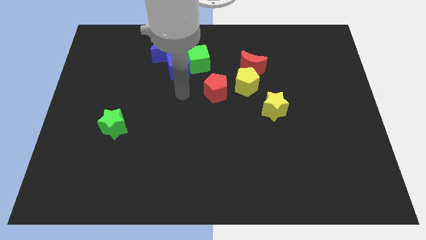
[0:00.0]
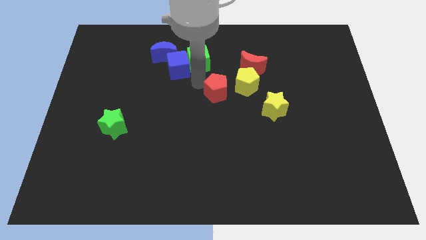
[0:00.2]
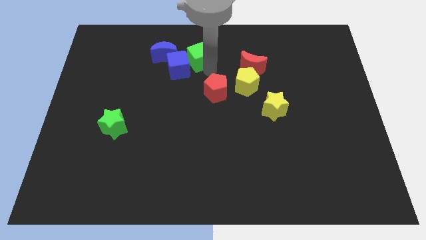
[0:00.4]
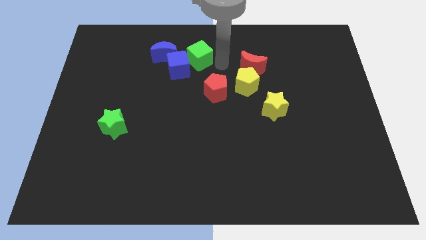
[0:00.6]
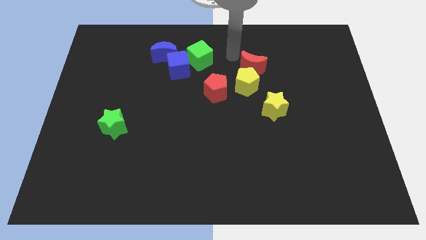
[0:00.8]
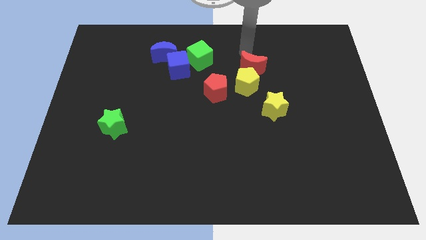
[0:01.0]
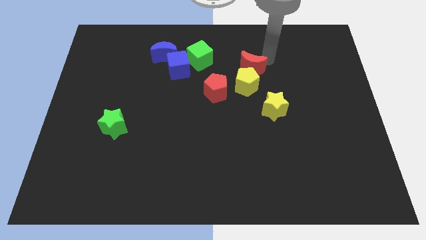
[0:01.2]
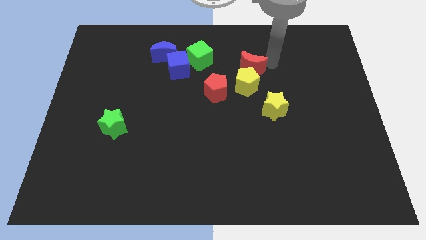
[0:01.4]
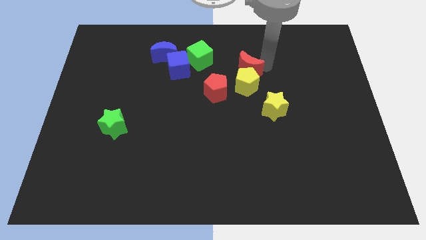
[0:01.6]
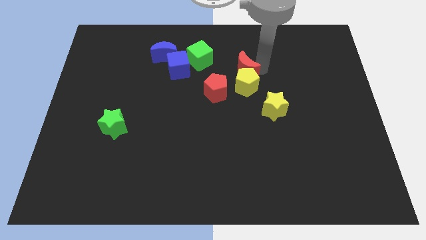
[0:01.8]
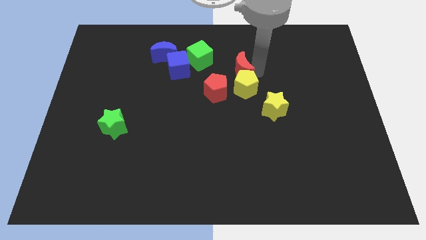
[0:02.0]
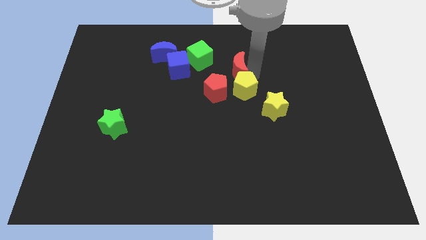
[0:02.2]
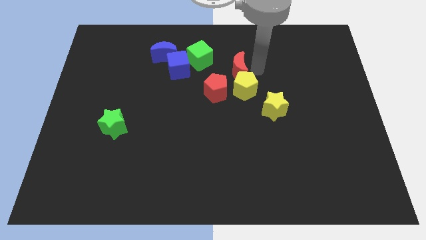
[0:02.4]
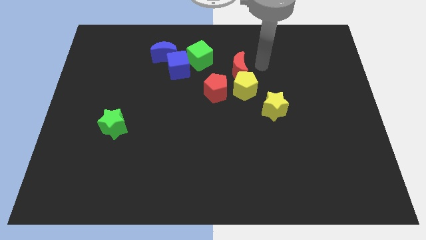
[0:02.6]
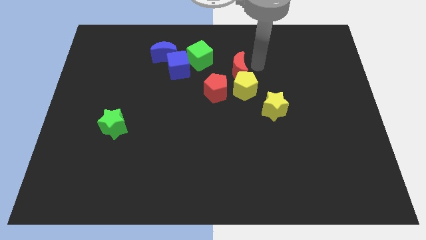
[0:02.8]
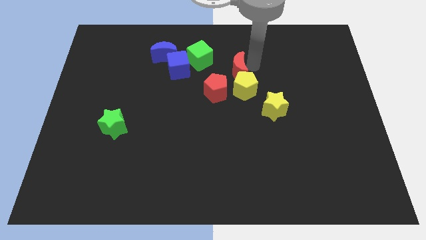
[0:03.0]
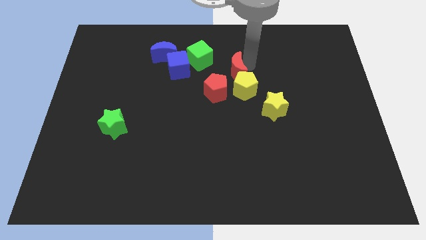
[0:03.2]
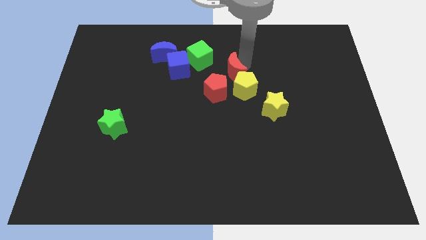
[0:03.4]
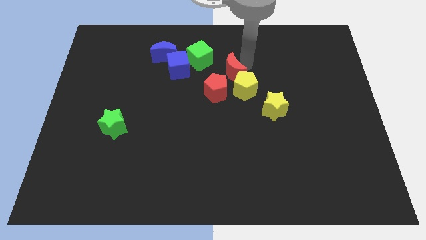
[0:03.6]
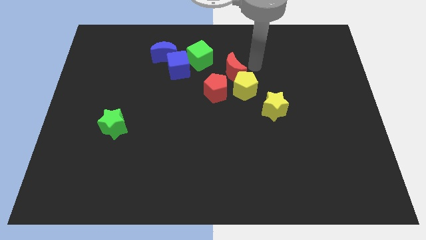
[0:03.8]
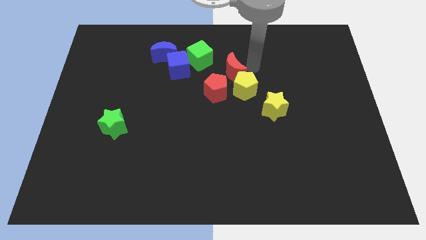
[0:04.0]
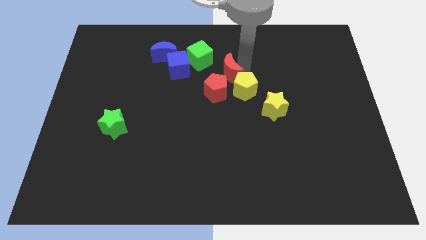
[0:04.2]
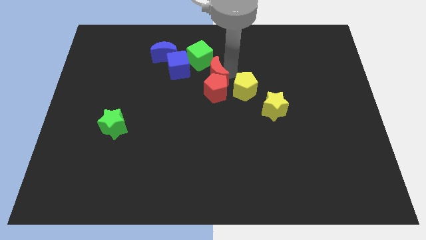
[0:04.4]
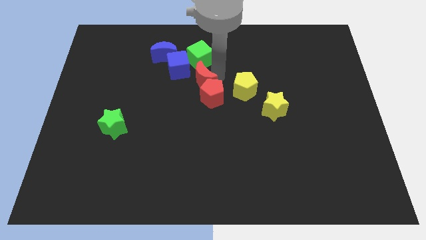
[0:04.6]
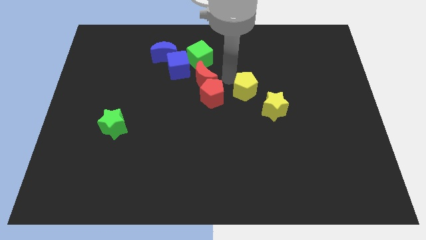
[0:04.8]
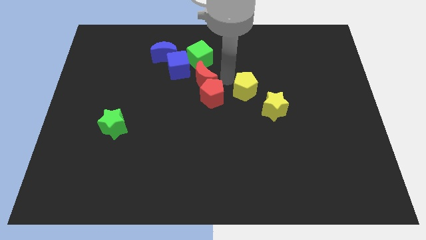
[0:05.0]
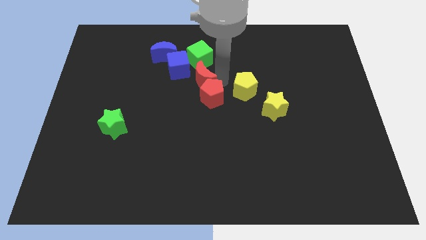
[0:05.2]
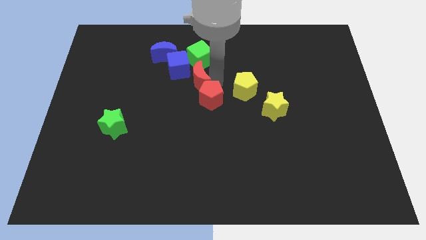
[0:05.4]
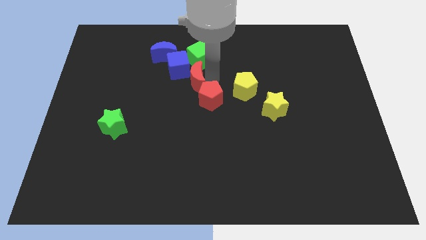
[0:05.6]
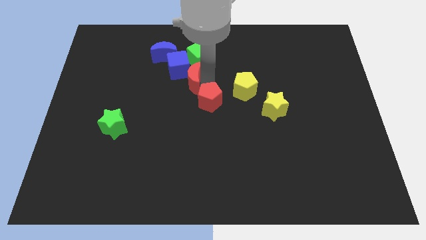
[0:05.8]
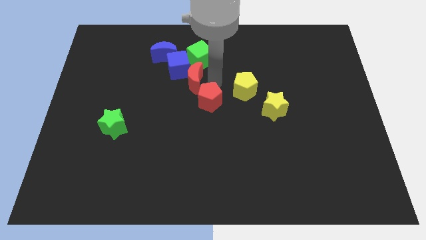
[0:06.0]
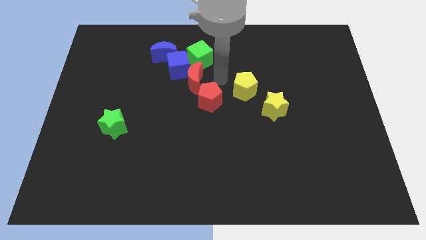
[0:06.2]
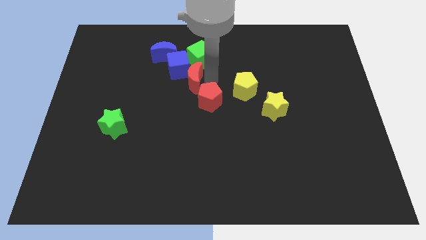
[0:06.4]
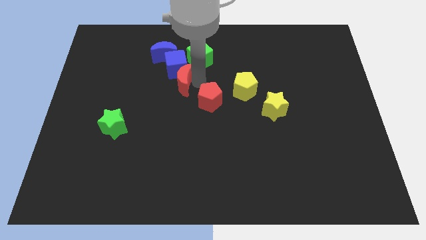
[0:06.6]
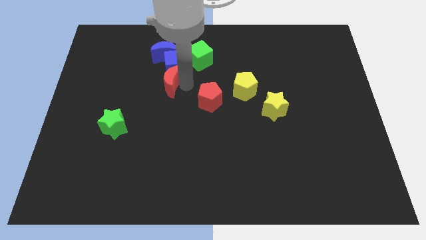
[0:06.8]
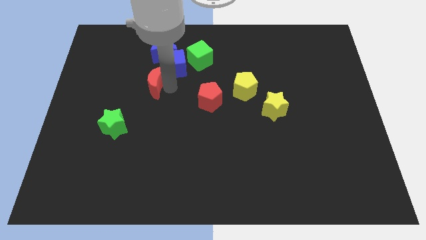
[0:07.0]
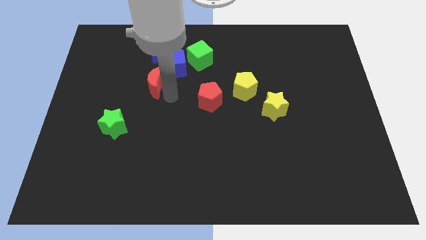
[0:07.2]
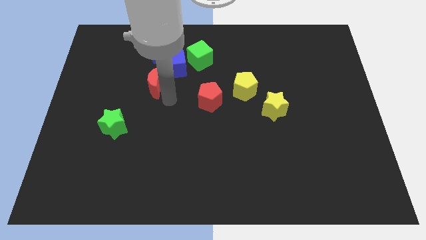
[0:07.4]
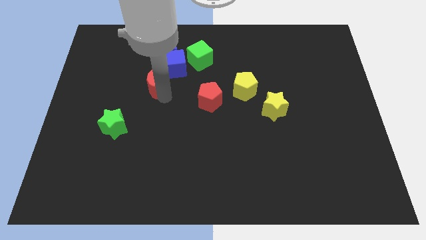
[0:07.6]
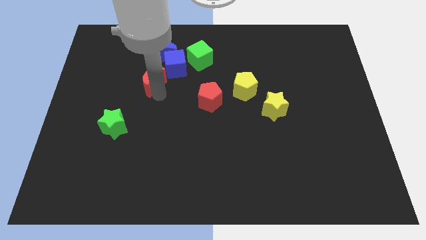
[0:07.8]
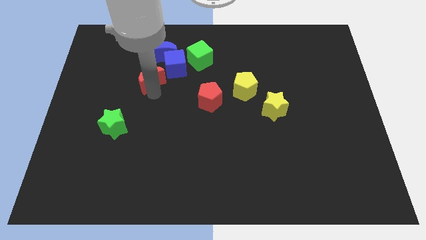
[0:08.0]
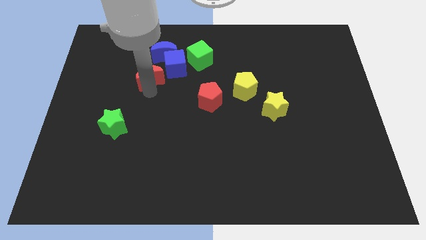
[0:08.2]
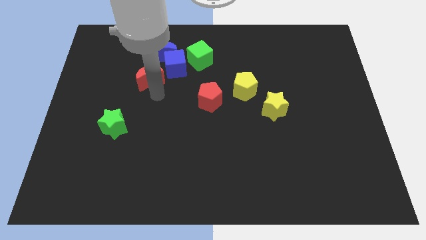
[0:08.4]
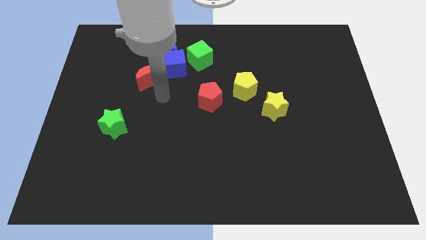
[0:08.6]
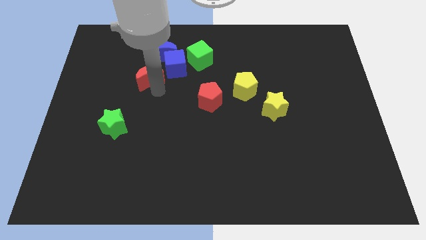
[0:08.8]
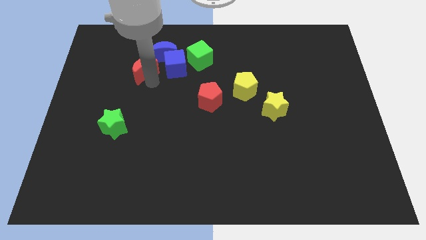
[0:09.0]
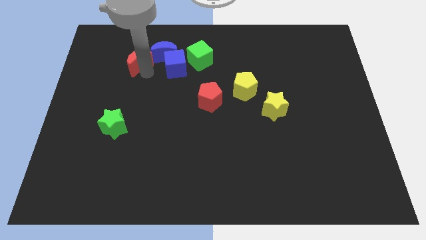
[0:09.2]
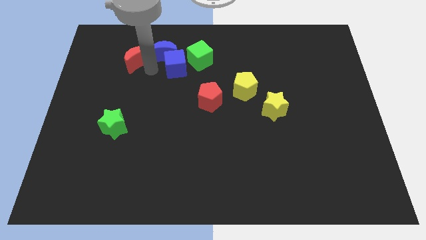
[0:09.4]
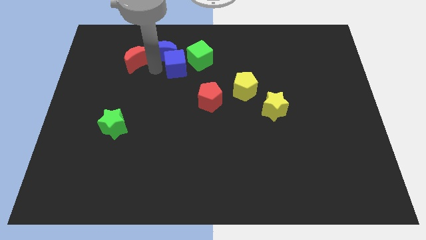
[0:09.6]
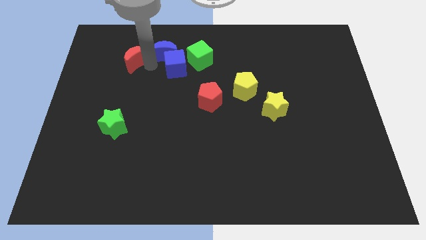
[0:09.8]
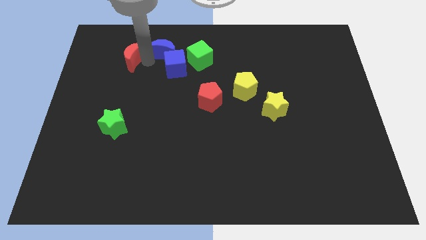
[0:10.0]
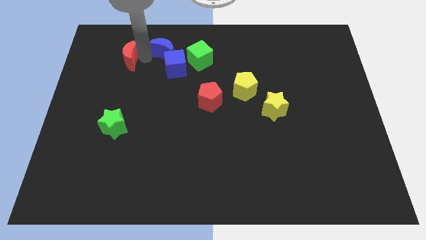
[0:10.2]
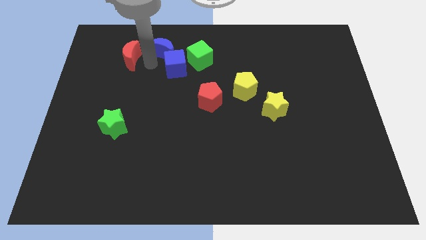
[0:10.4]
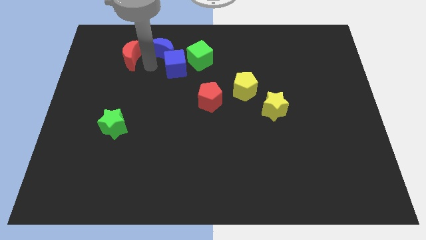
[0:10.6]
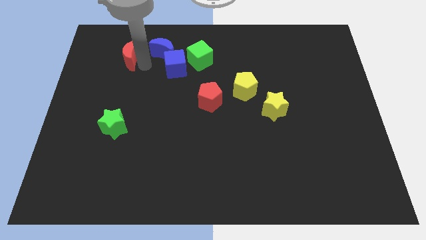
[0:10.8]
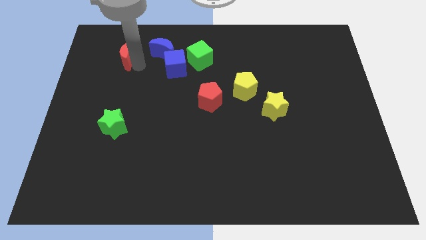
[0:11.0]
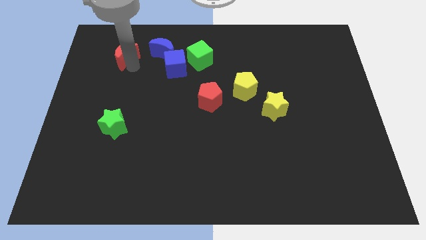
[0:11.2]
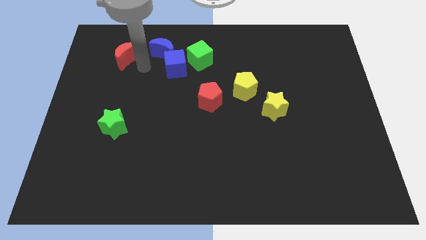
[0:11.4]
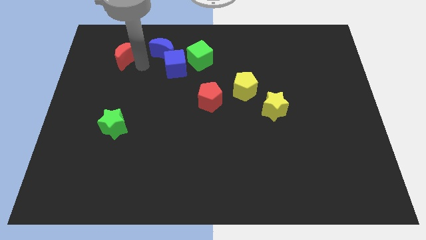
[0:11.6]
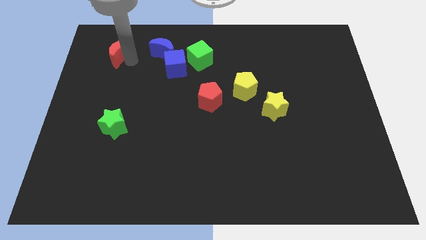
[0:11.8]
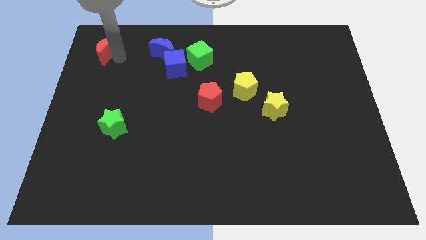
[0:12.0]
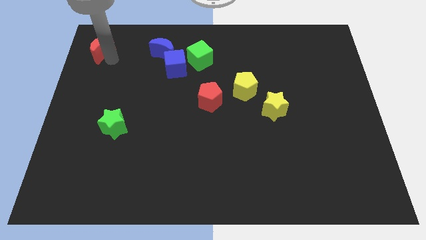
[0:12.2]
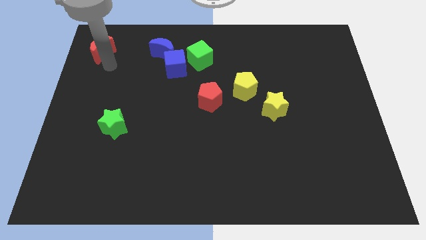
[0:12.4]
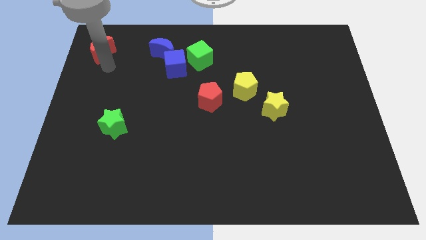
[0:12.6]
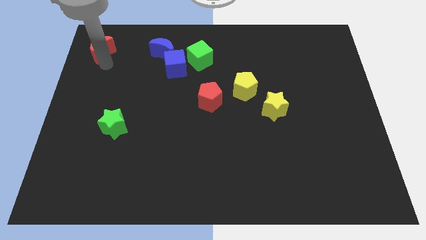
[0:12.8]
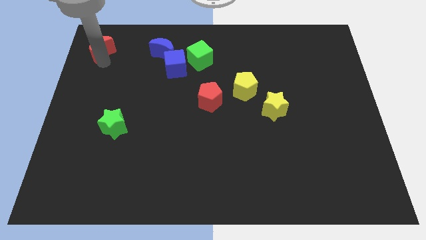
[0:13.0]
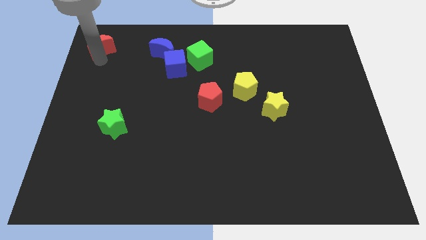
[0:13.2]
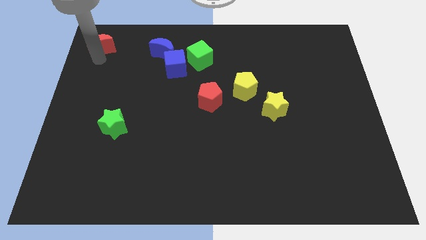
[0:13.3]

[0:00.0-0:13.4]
put the red moon to the top left

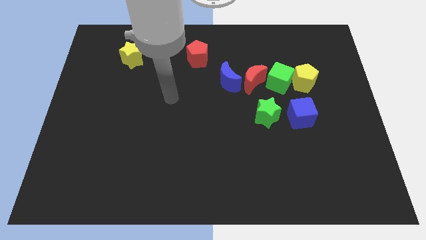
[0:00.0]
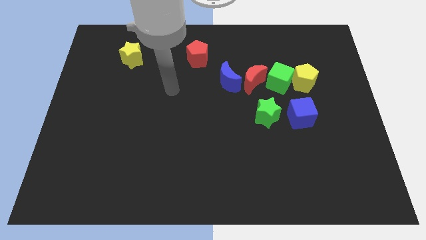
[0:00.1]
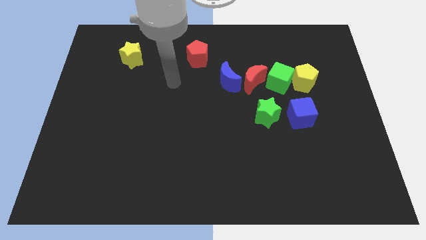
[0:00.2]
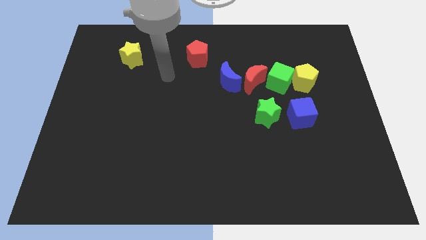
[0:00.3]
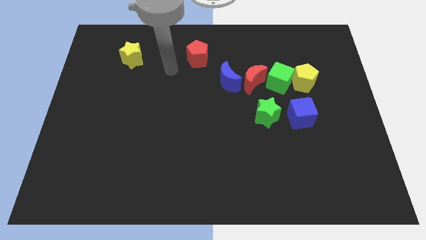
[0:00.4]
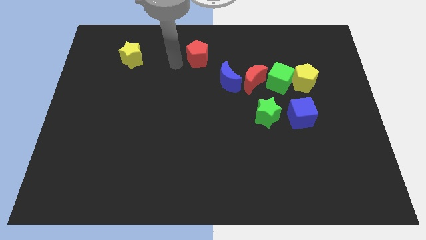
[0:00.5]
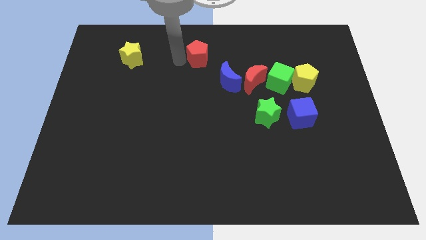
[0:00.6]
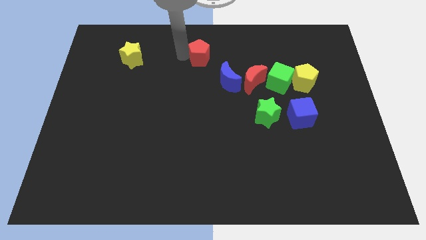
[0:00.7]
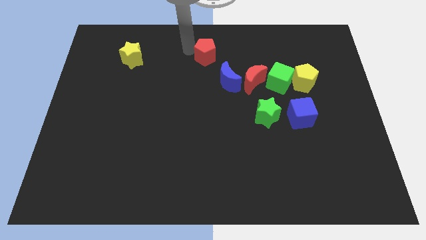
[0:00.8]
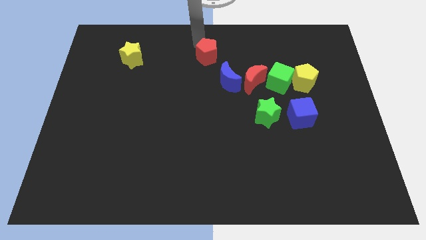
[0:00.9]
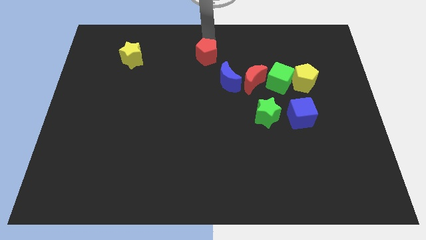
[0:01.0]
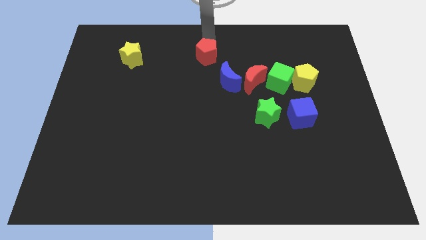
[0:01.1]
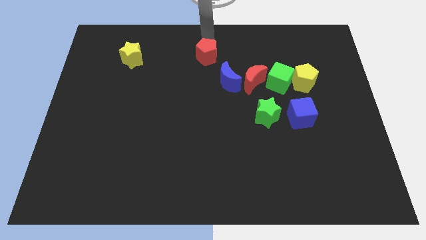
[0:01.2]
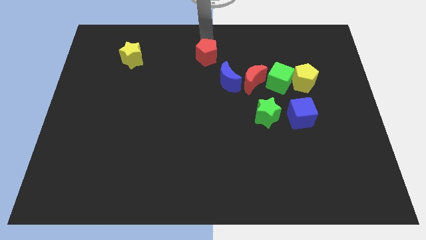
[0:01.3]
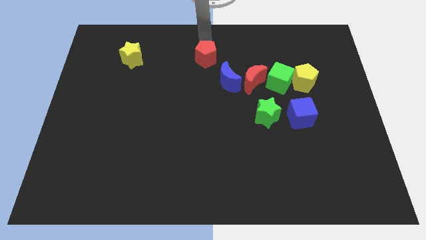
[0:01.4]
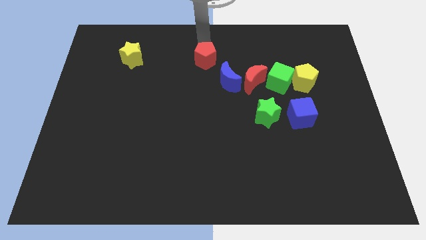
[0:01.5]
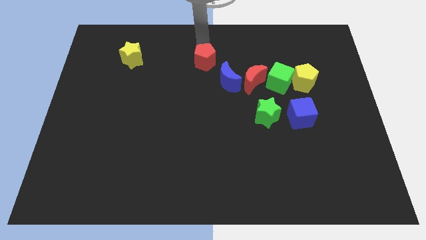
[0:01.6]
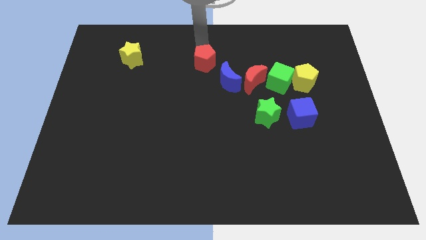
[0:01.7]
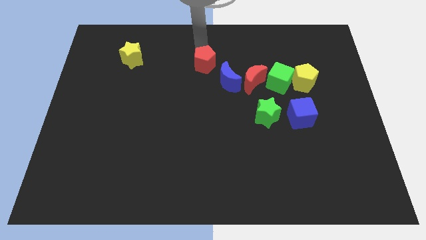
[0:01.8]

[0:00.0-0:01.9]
put the red pentagon to the center
